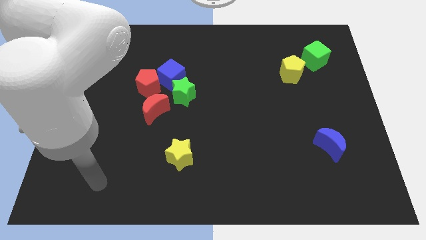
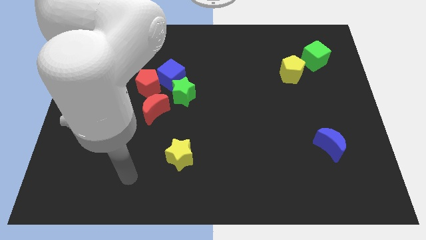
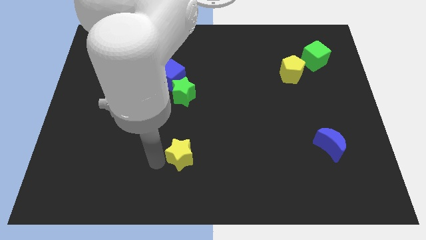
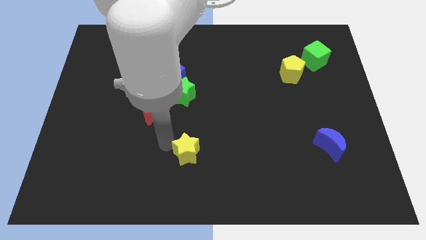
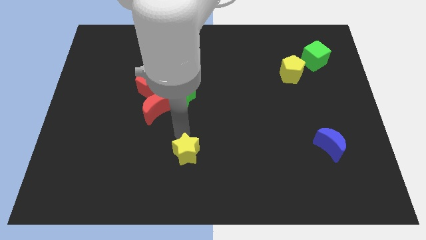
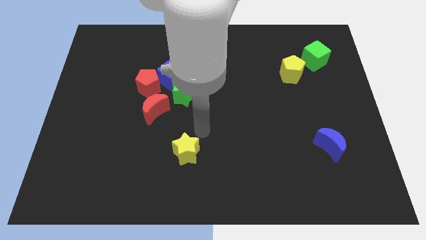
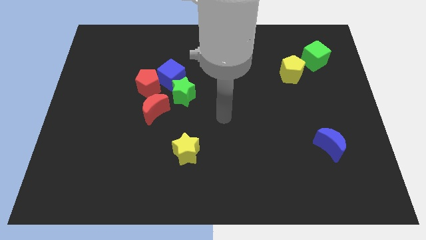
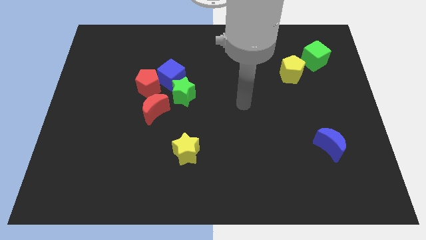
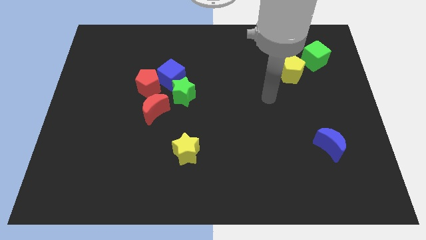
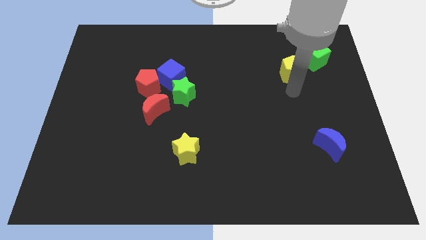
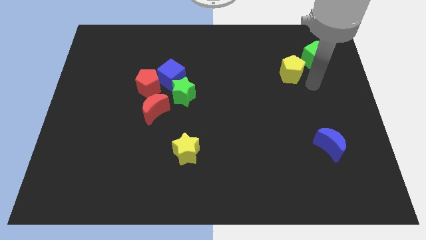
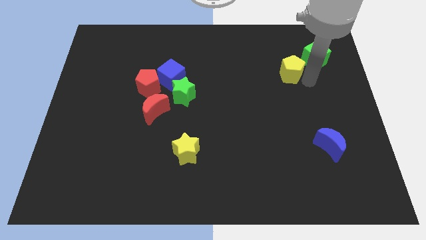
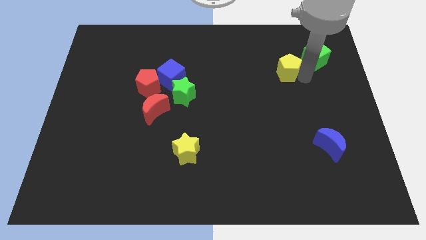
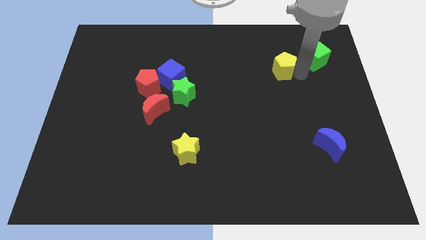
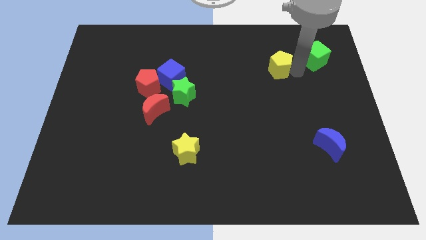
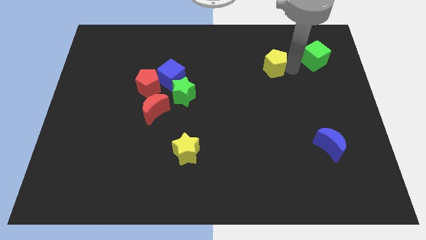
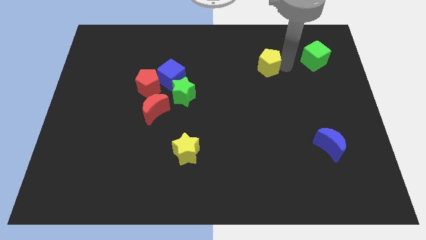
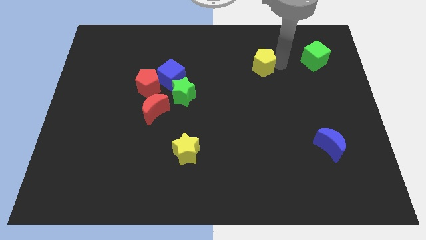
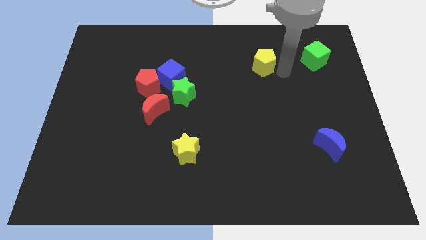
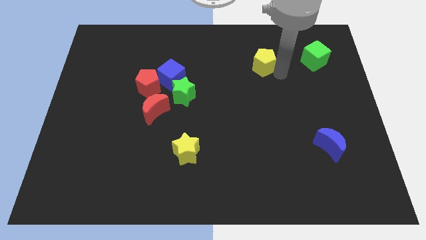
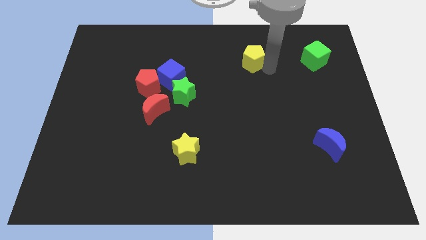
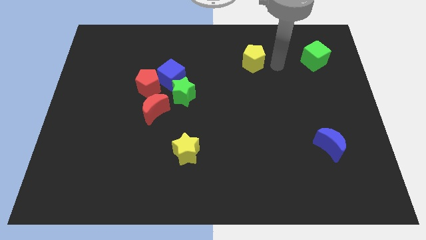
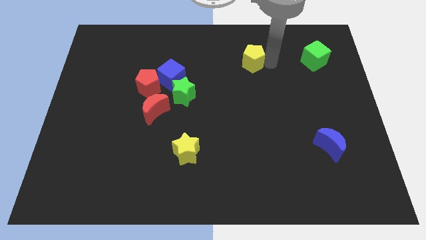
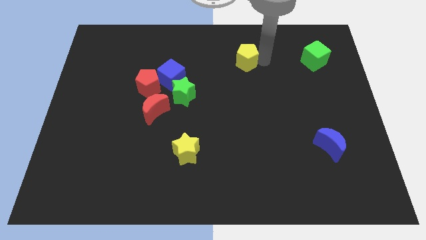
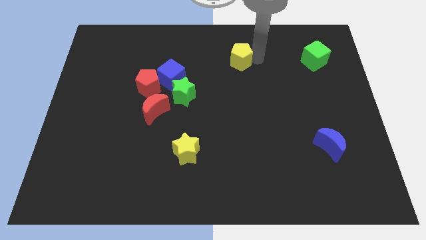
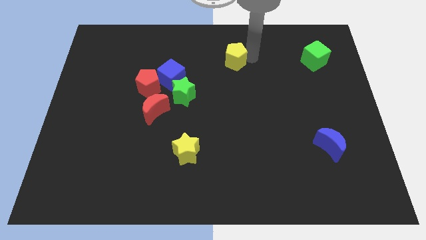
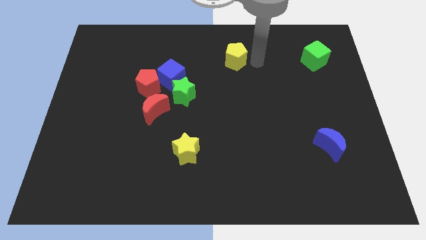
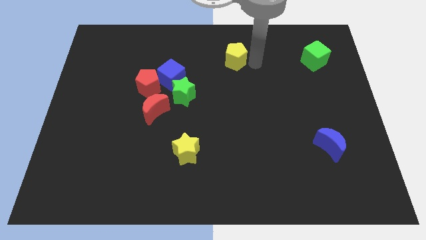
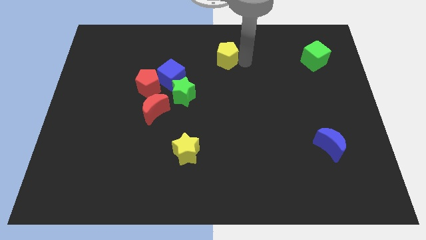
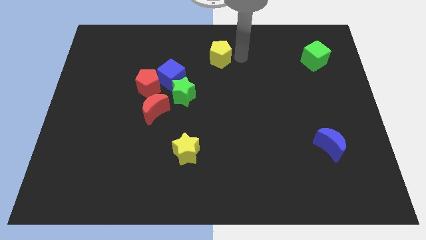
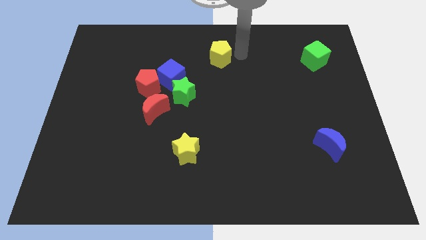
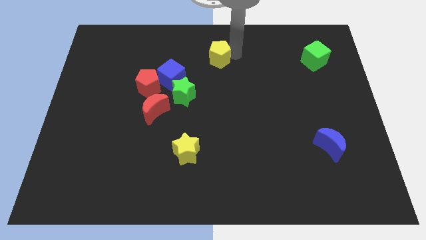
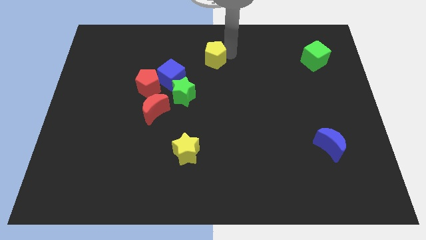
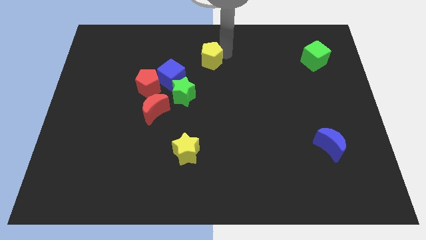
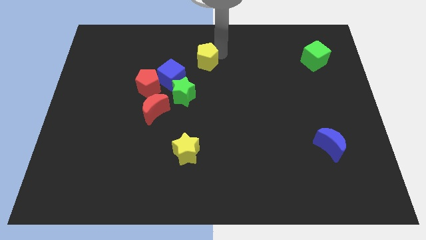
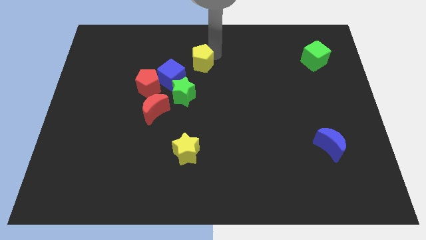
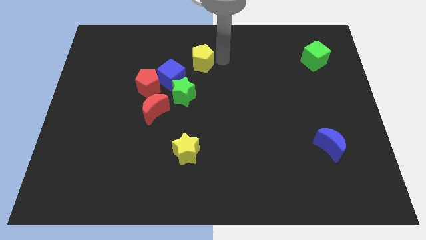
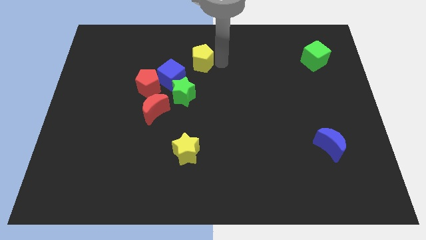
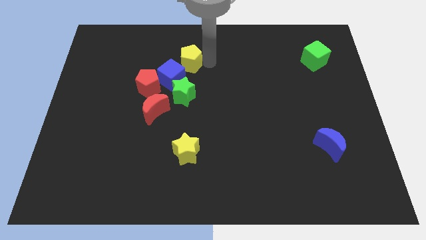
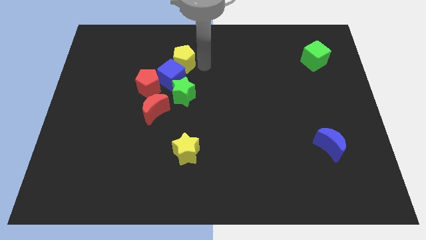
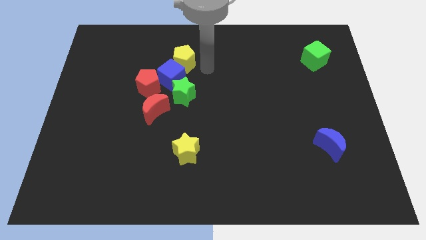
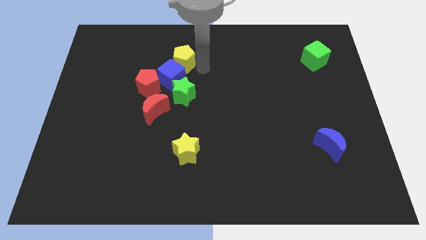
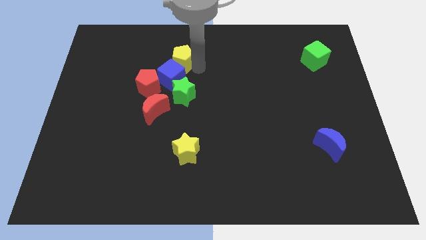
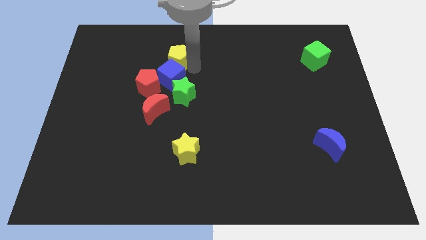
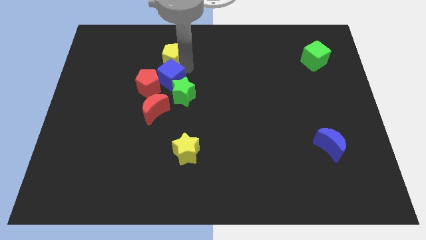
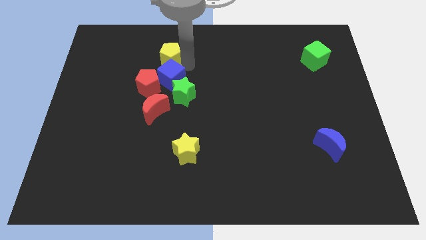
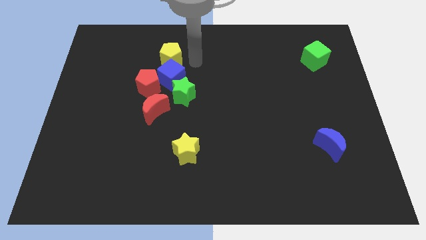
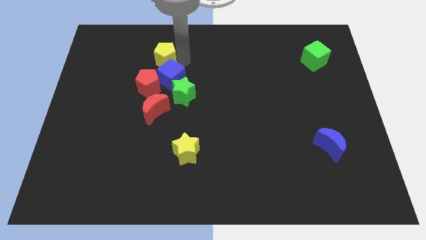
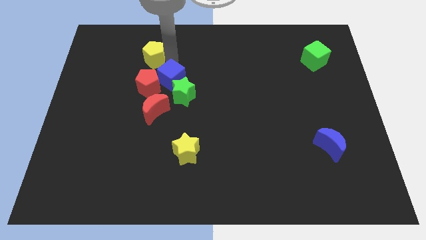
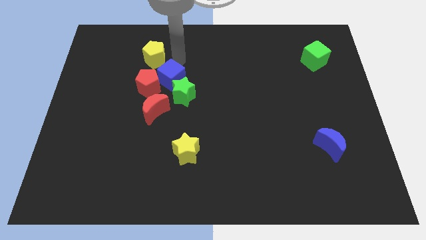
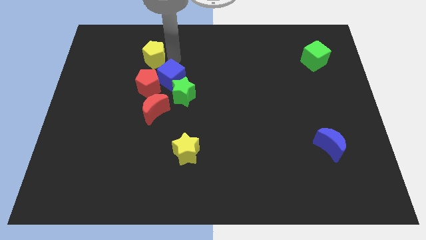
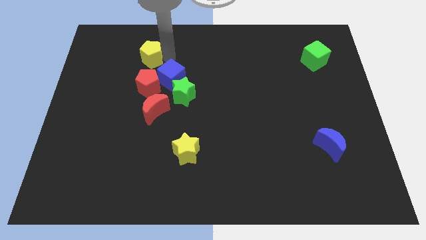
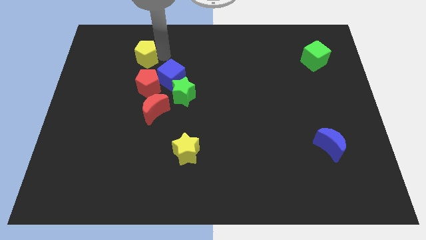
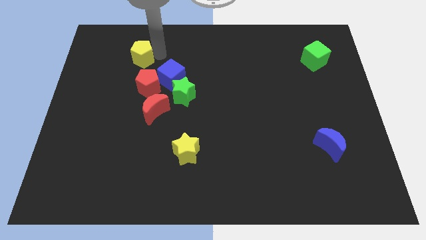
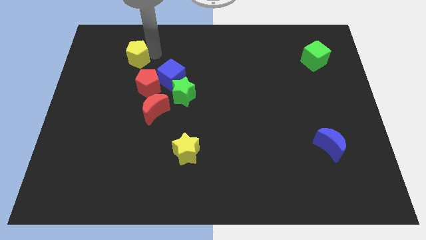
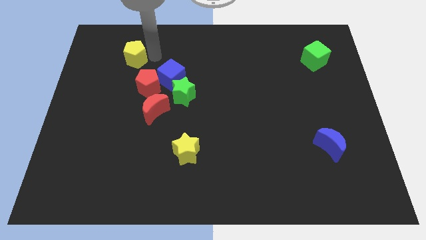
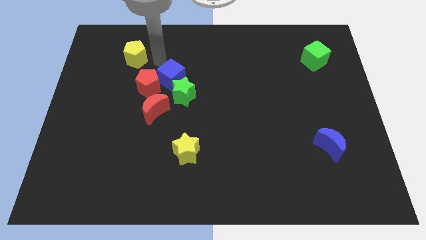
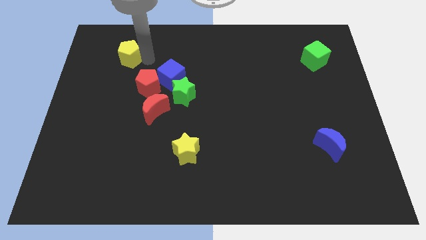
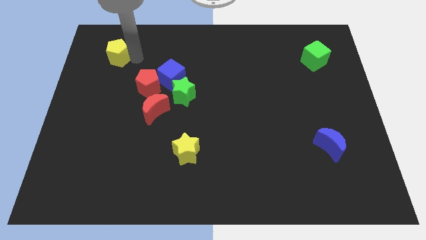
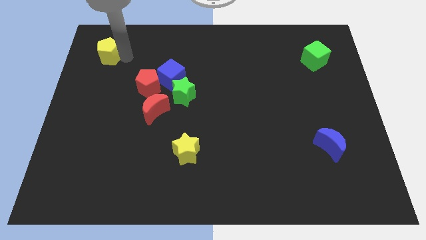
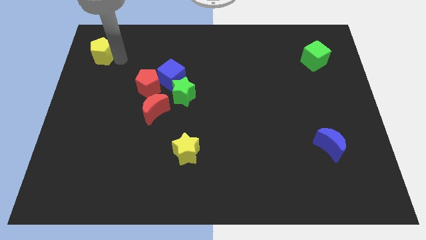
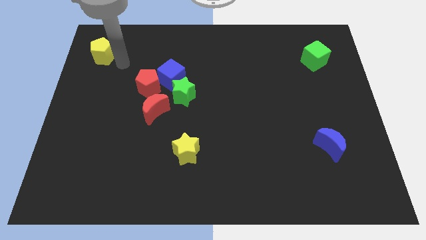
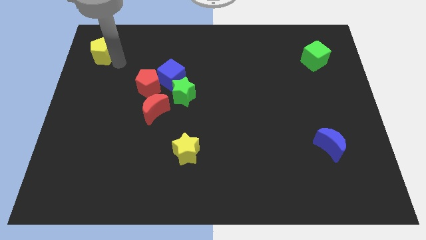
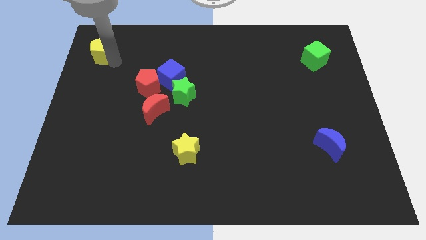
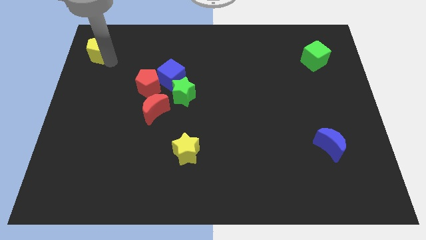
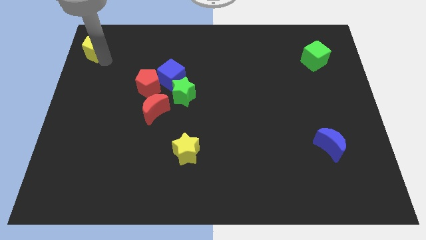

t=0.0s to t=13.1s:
push the yellow pentagon to the upper left corner
